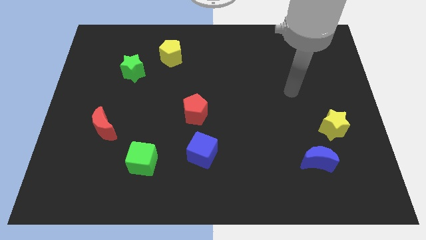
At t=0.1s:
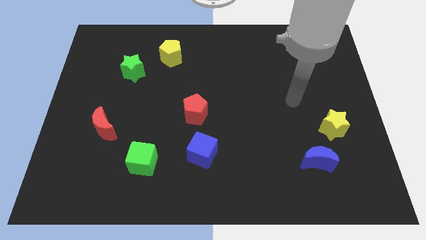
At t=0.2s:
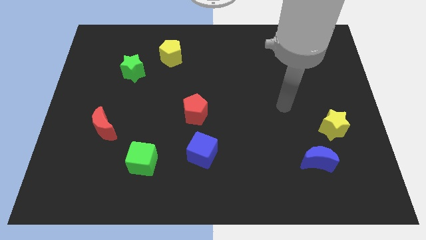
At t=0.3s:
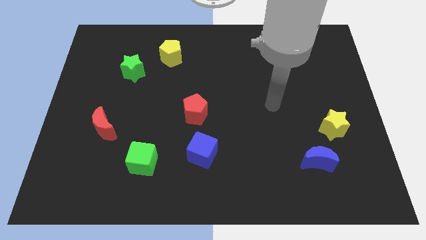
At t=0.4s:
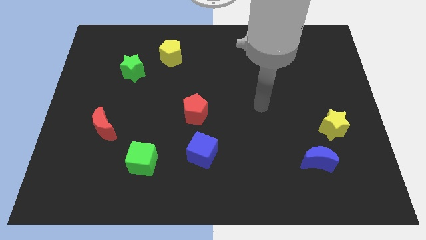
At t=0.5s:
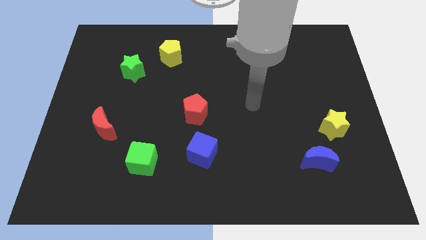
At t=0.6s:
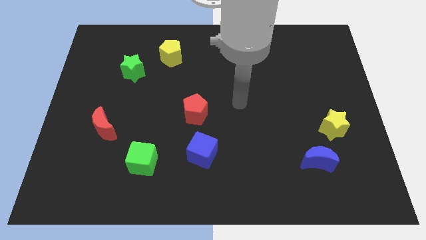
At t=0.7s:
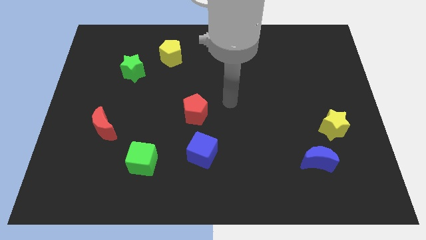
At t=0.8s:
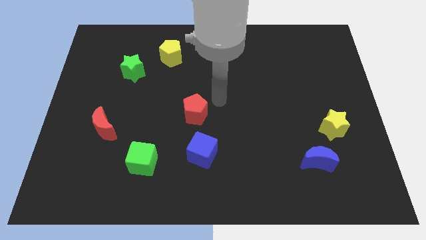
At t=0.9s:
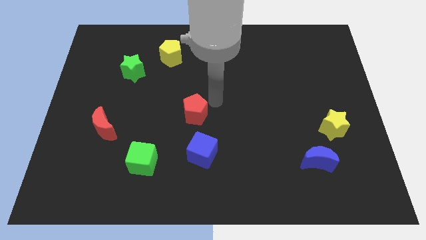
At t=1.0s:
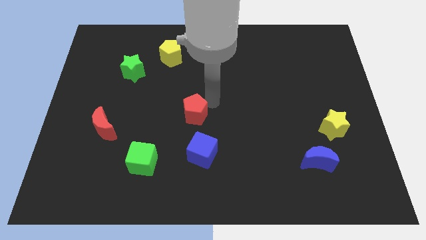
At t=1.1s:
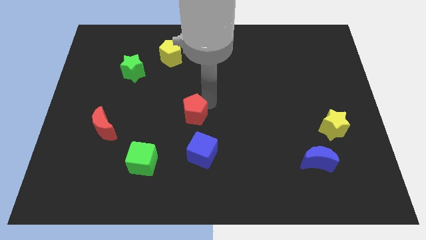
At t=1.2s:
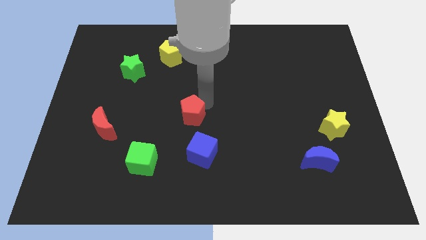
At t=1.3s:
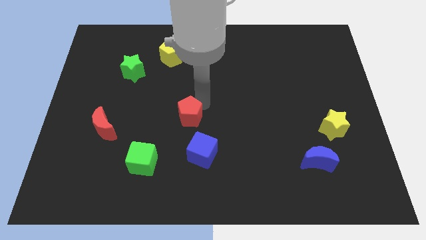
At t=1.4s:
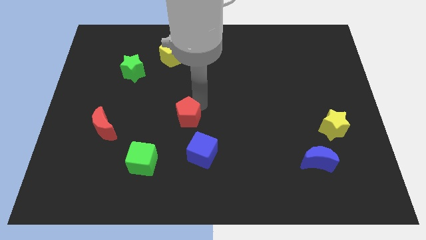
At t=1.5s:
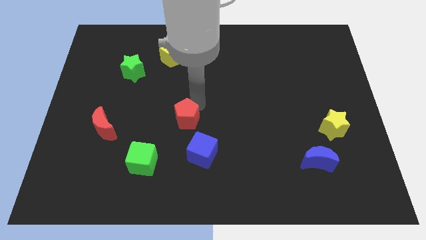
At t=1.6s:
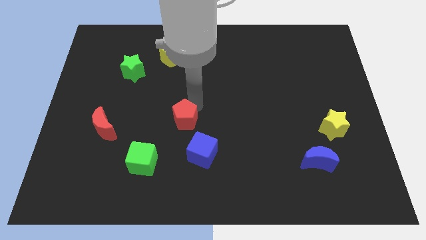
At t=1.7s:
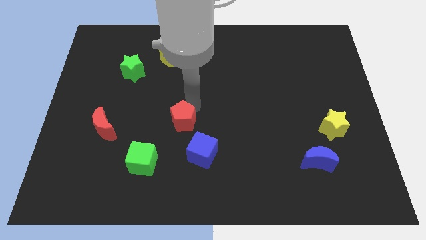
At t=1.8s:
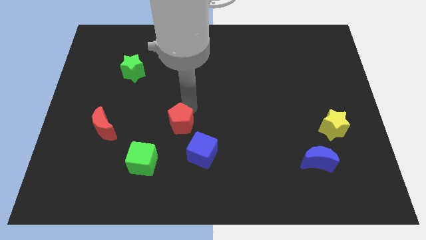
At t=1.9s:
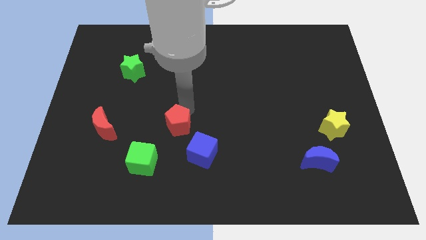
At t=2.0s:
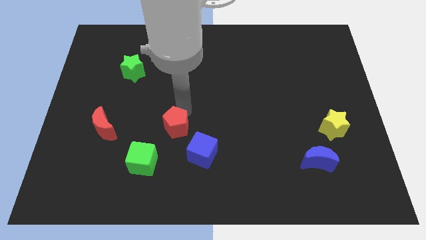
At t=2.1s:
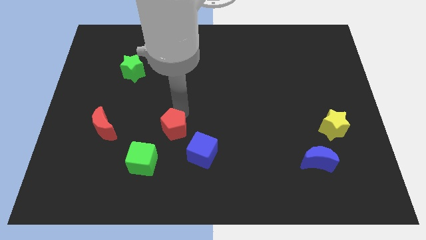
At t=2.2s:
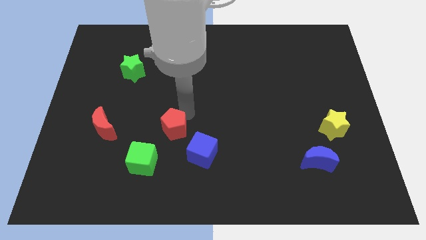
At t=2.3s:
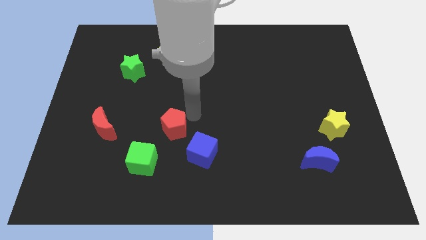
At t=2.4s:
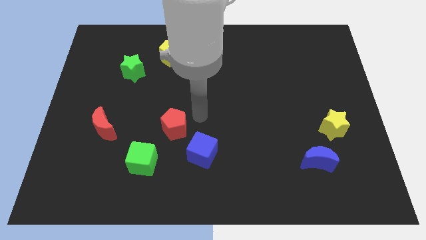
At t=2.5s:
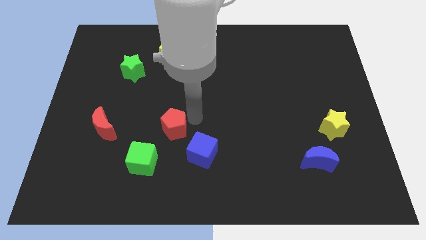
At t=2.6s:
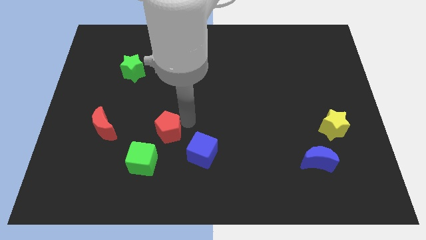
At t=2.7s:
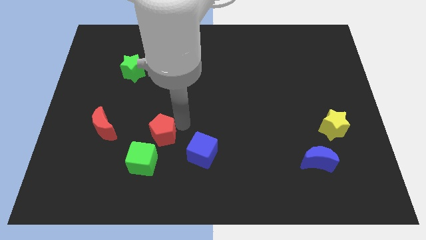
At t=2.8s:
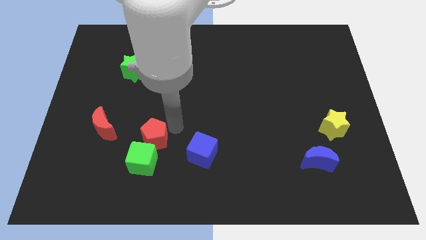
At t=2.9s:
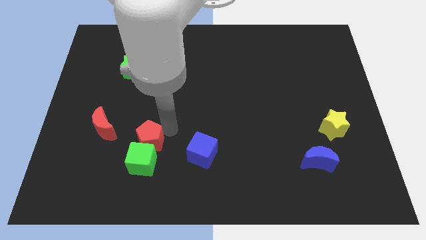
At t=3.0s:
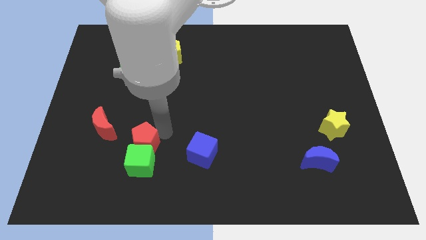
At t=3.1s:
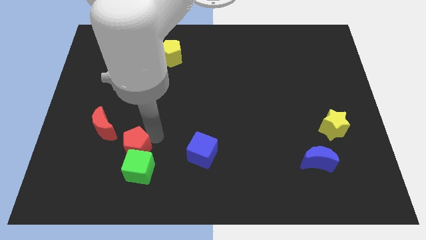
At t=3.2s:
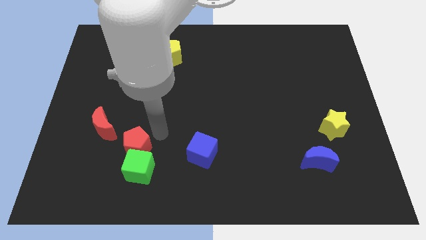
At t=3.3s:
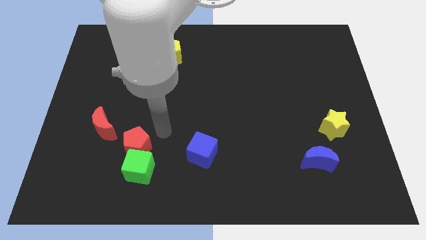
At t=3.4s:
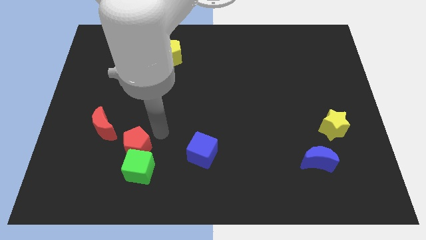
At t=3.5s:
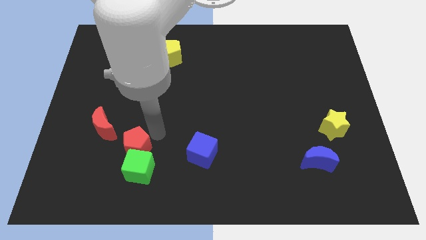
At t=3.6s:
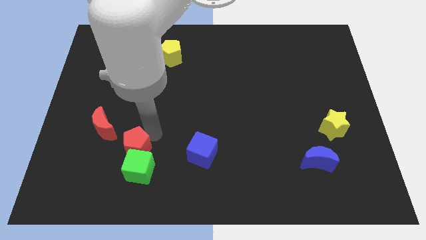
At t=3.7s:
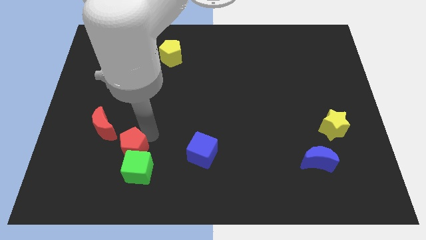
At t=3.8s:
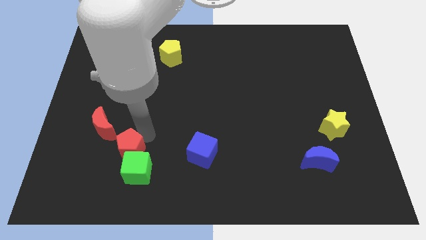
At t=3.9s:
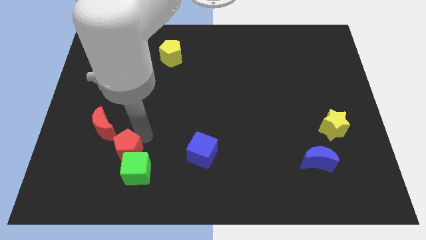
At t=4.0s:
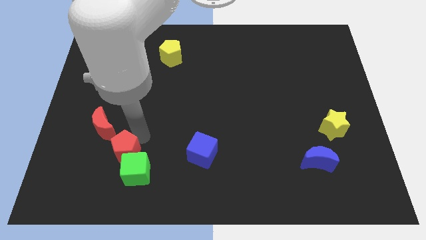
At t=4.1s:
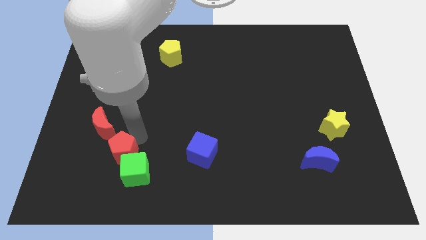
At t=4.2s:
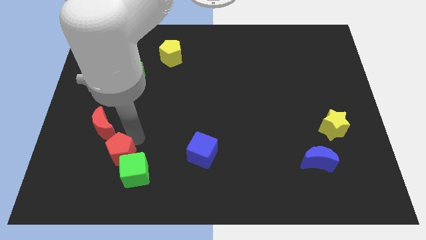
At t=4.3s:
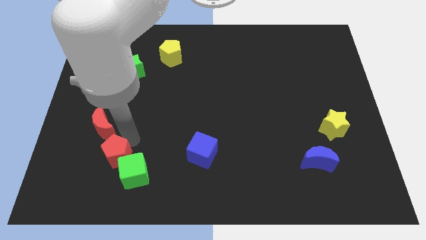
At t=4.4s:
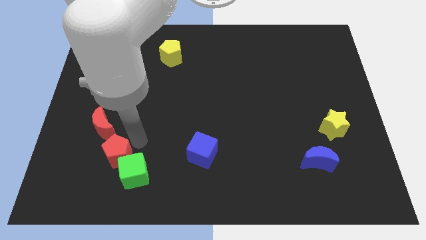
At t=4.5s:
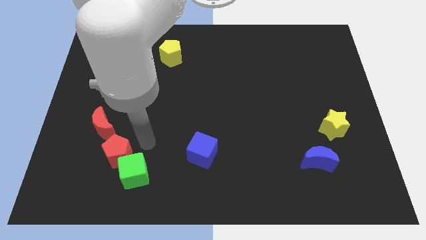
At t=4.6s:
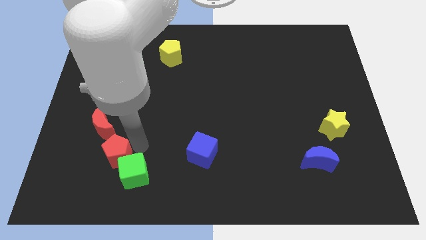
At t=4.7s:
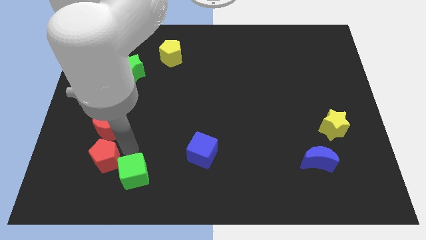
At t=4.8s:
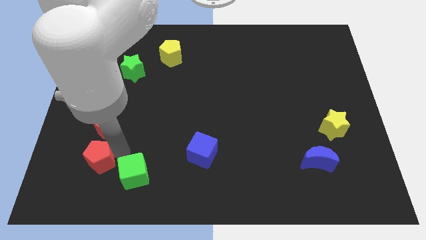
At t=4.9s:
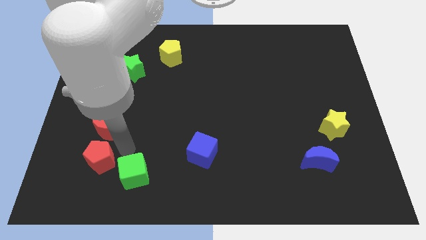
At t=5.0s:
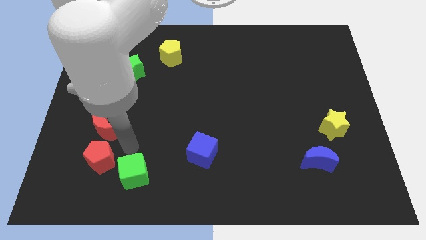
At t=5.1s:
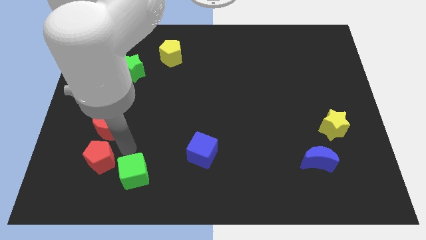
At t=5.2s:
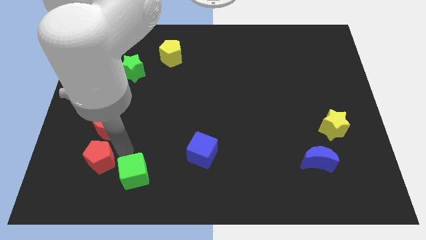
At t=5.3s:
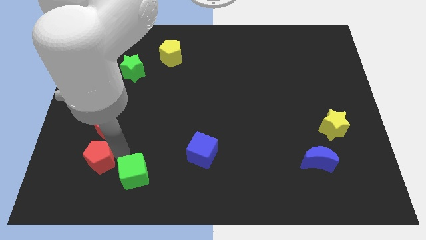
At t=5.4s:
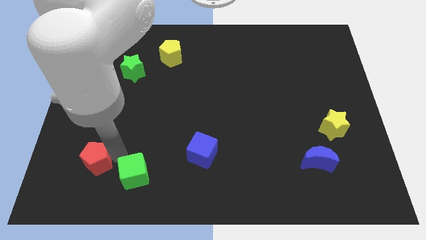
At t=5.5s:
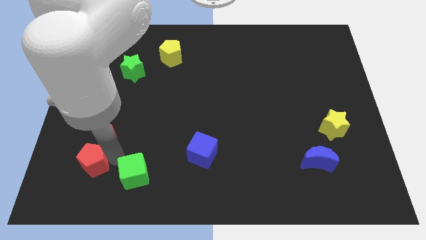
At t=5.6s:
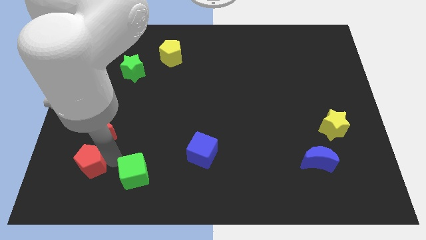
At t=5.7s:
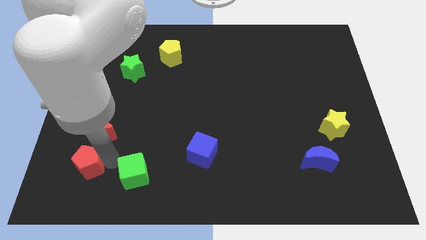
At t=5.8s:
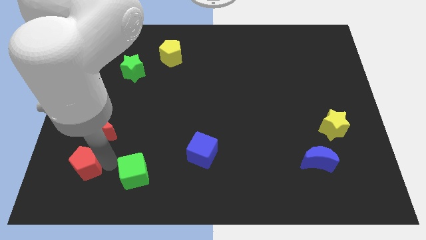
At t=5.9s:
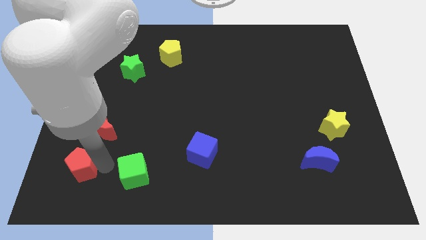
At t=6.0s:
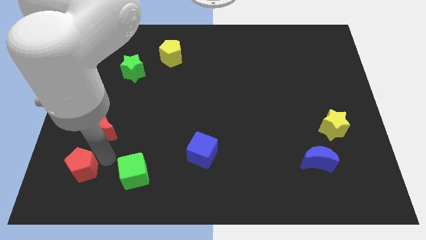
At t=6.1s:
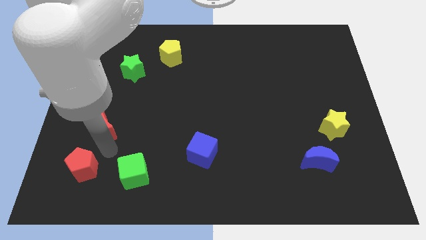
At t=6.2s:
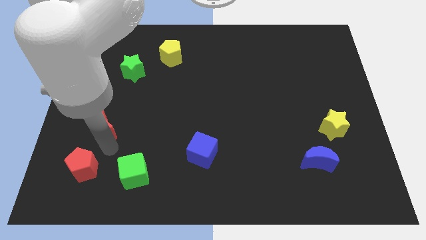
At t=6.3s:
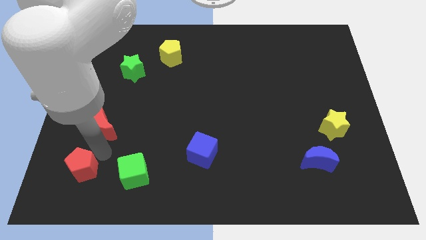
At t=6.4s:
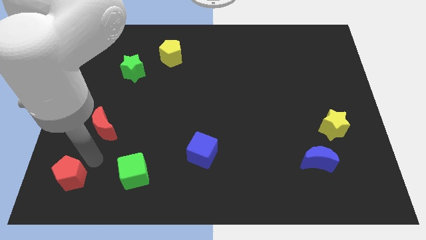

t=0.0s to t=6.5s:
put the red pentagon to the bottom left of the board

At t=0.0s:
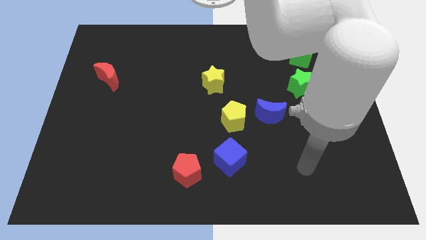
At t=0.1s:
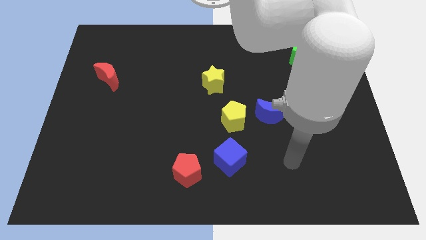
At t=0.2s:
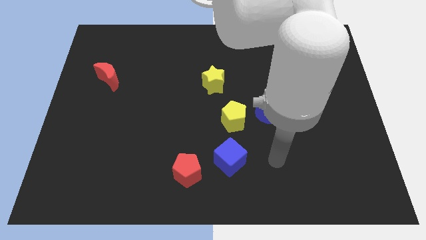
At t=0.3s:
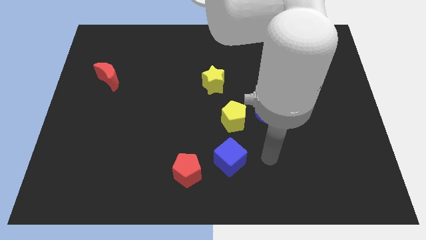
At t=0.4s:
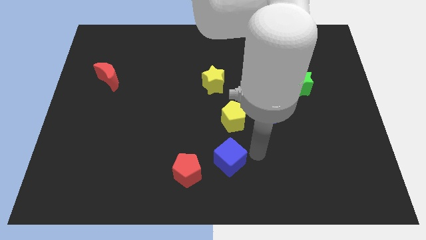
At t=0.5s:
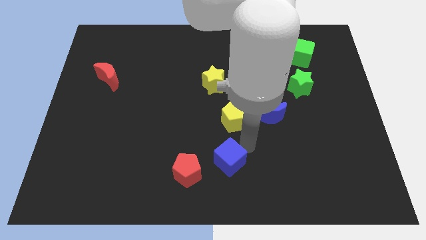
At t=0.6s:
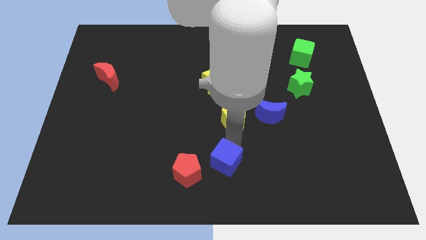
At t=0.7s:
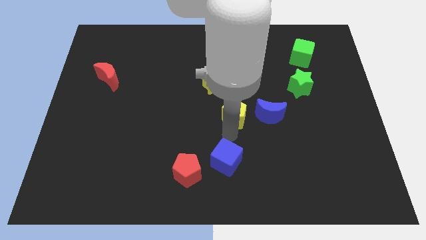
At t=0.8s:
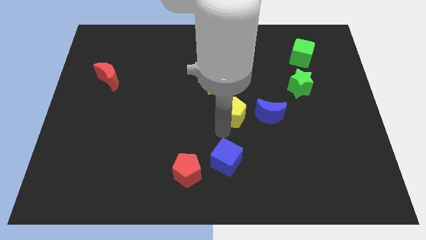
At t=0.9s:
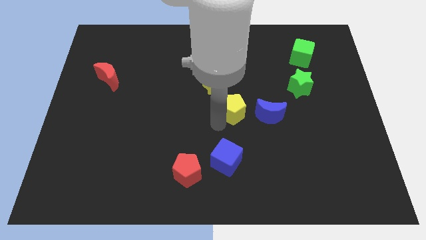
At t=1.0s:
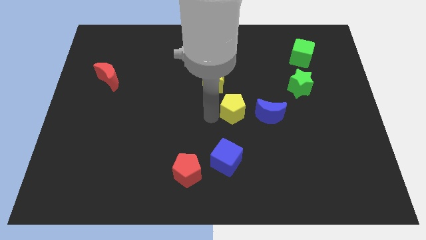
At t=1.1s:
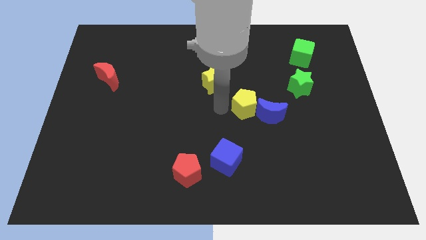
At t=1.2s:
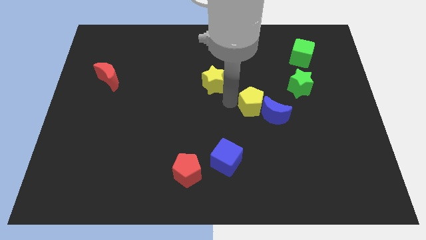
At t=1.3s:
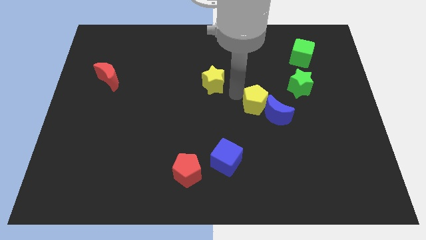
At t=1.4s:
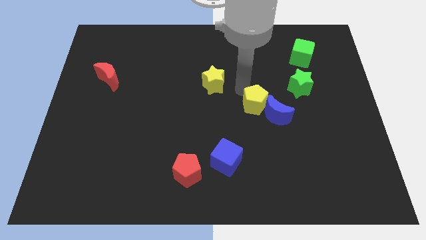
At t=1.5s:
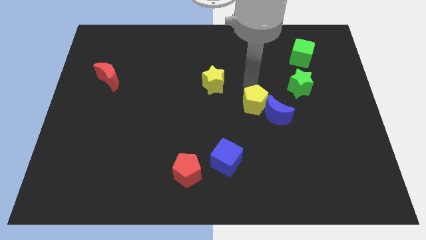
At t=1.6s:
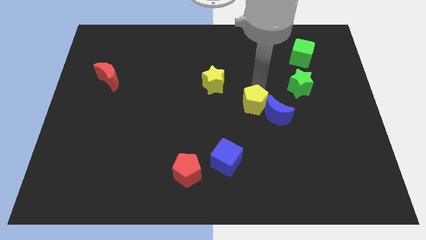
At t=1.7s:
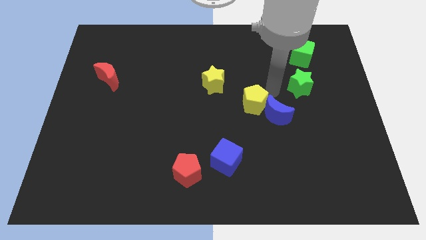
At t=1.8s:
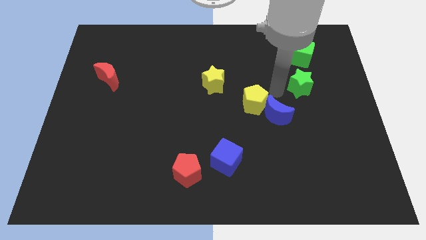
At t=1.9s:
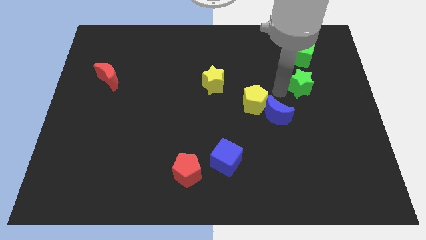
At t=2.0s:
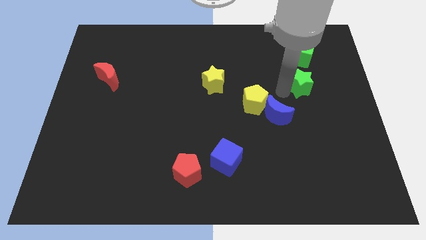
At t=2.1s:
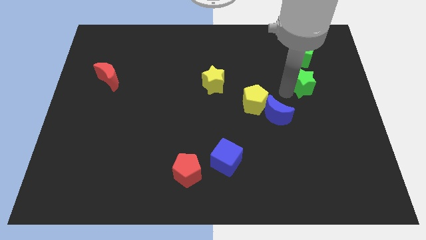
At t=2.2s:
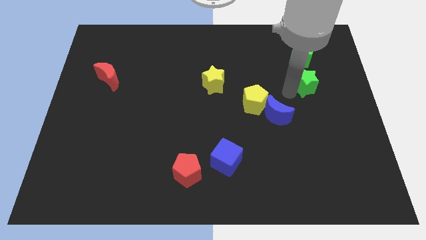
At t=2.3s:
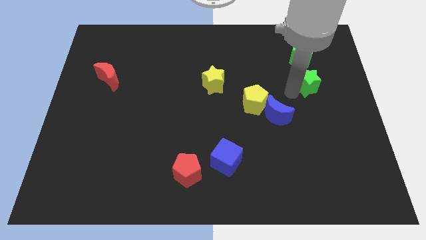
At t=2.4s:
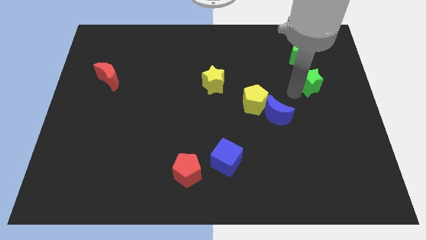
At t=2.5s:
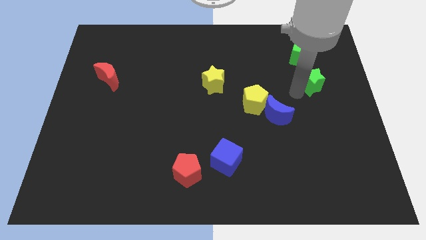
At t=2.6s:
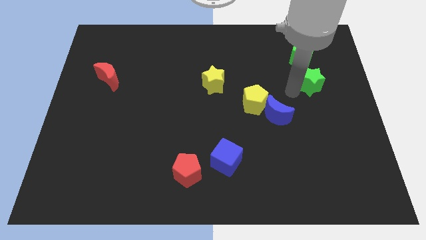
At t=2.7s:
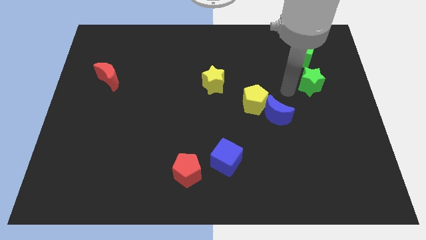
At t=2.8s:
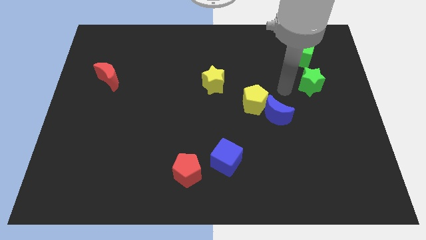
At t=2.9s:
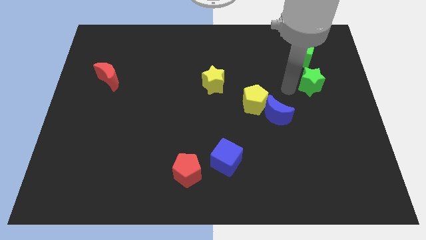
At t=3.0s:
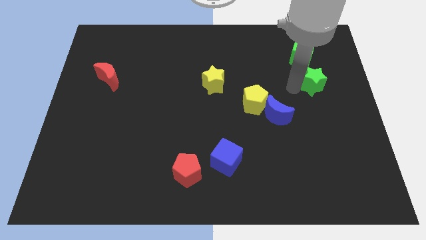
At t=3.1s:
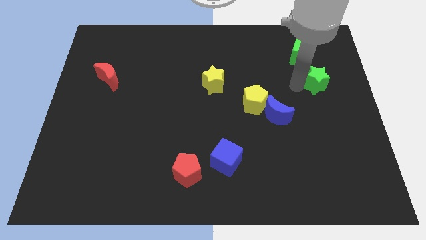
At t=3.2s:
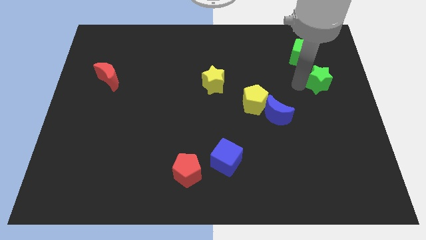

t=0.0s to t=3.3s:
push the green star to the right side
